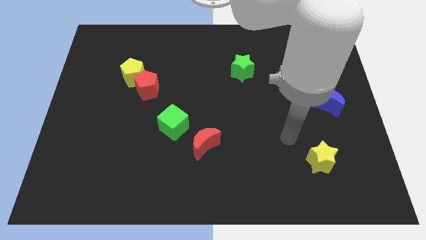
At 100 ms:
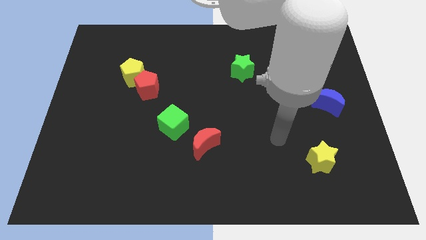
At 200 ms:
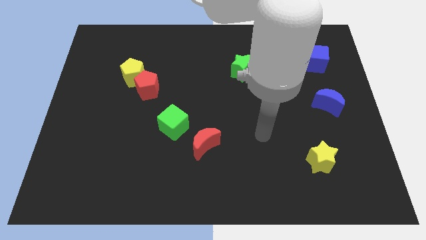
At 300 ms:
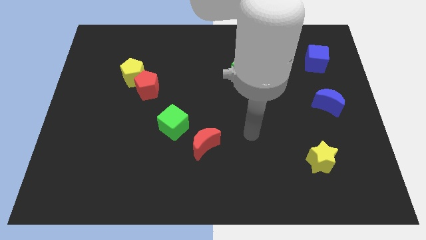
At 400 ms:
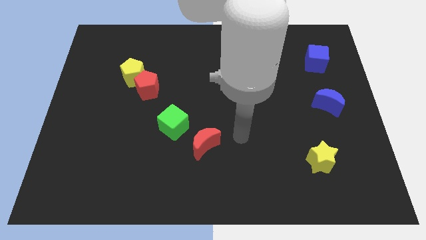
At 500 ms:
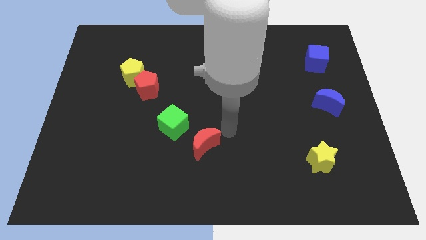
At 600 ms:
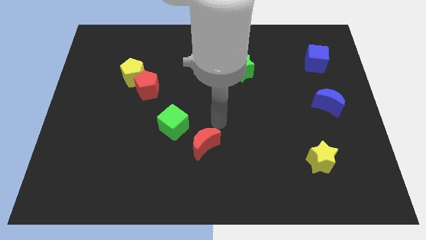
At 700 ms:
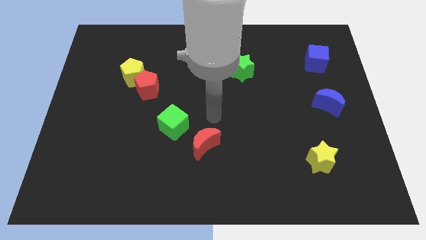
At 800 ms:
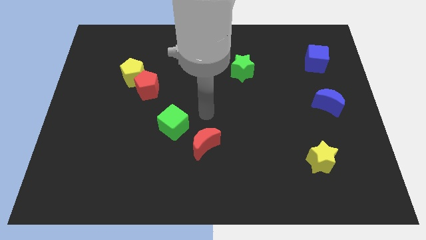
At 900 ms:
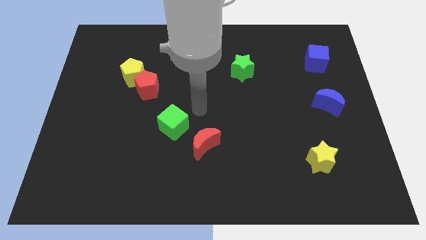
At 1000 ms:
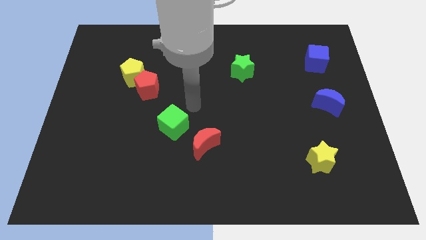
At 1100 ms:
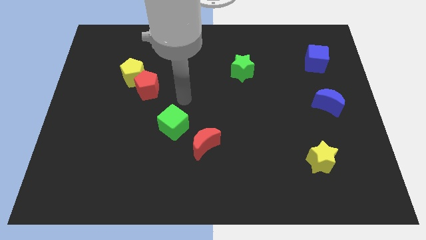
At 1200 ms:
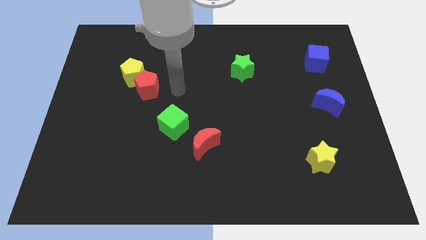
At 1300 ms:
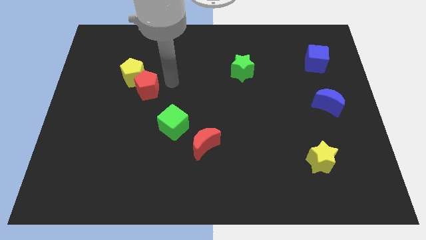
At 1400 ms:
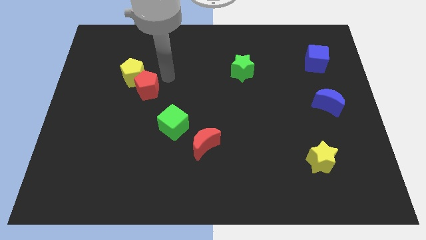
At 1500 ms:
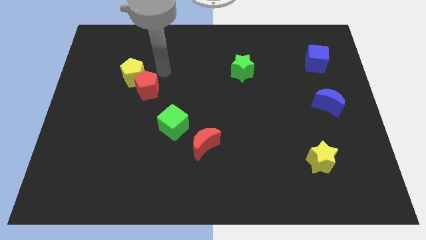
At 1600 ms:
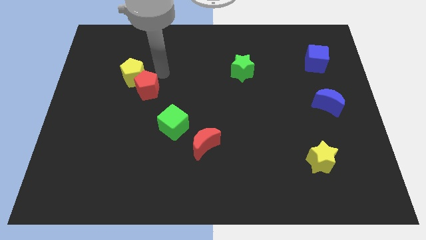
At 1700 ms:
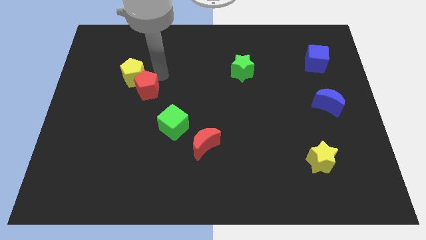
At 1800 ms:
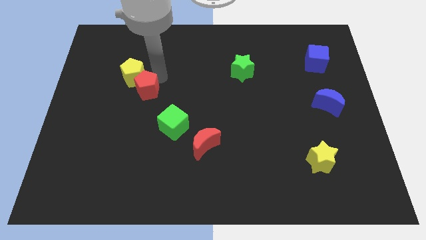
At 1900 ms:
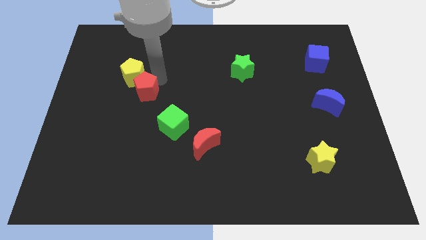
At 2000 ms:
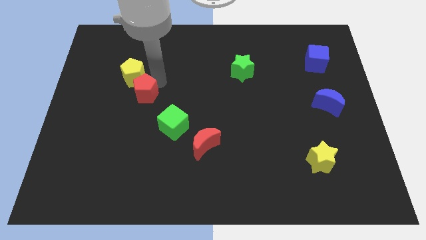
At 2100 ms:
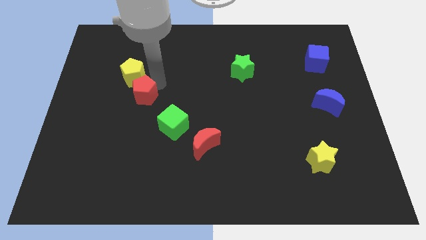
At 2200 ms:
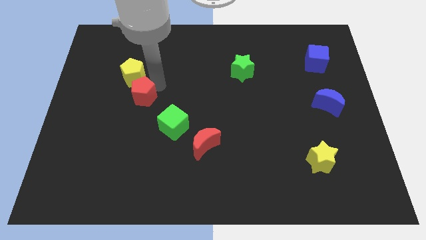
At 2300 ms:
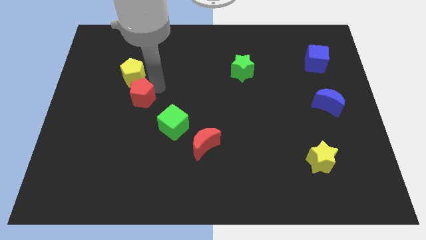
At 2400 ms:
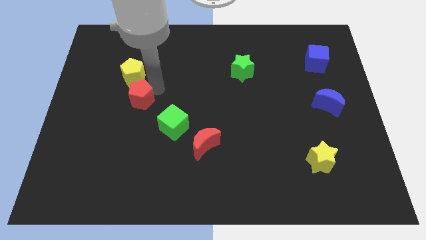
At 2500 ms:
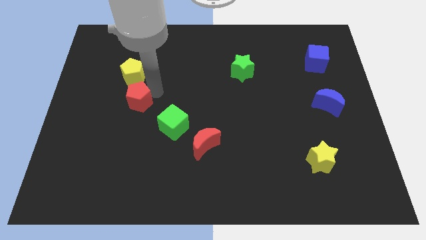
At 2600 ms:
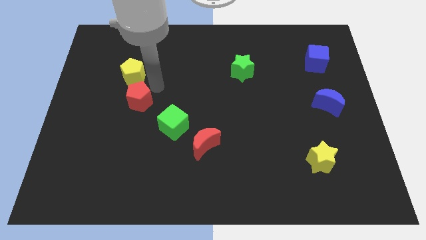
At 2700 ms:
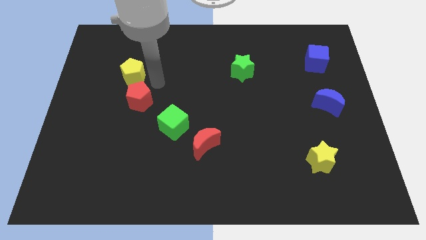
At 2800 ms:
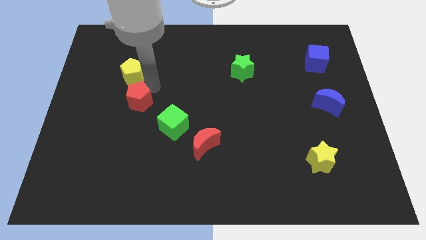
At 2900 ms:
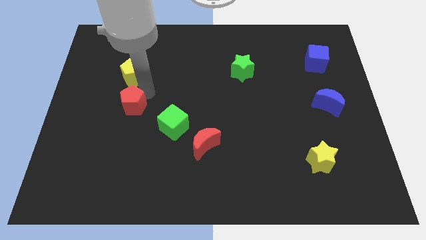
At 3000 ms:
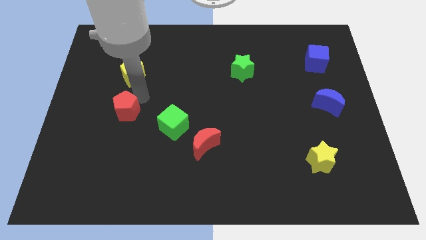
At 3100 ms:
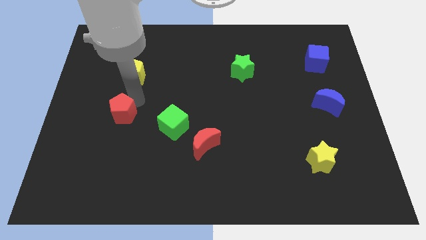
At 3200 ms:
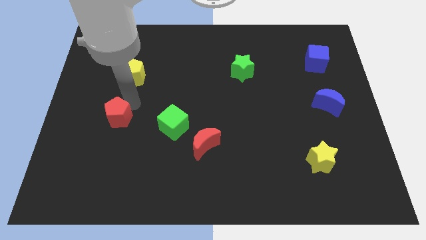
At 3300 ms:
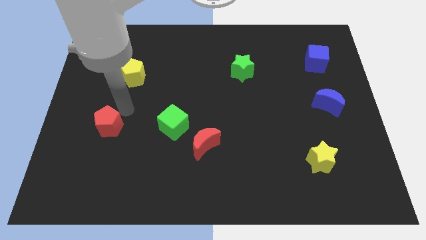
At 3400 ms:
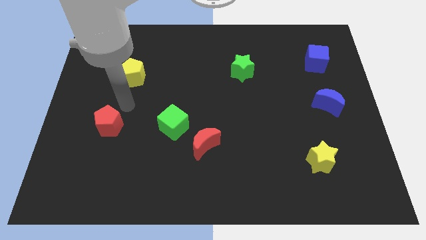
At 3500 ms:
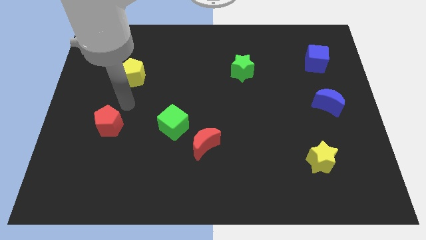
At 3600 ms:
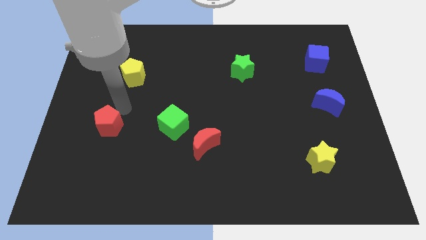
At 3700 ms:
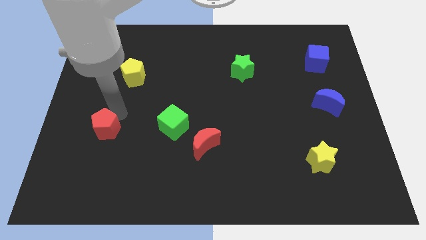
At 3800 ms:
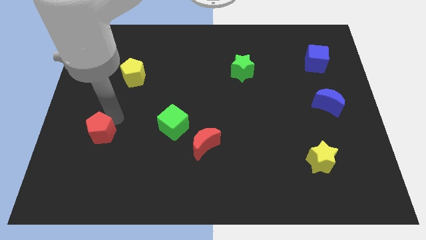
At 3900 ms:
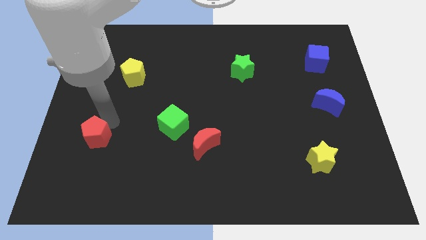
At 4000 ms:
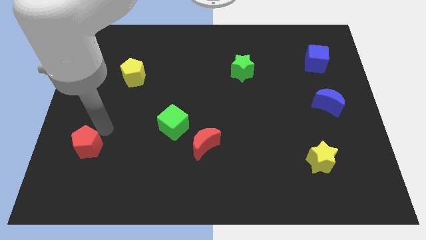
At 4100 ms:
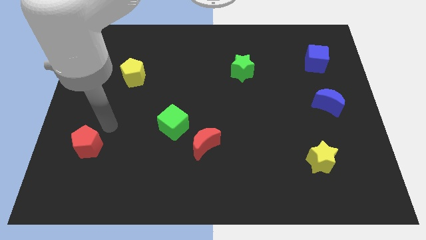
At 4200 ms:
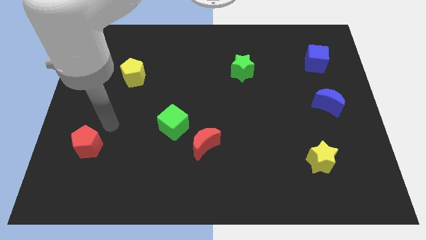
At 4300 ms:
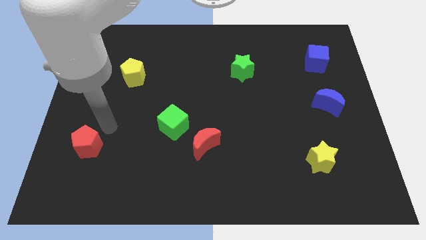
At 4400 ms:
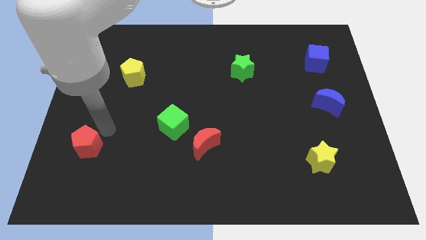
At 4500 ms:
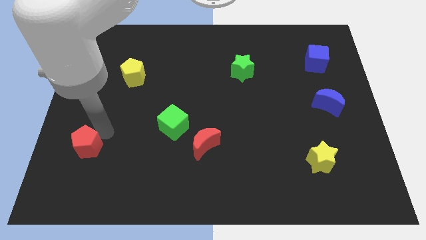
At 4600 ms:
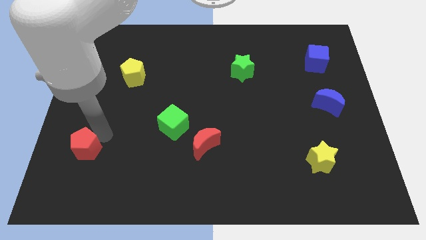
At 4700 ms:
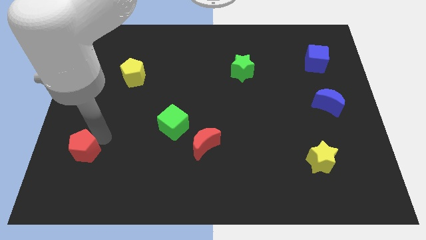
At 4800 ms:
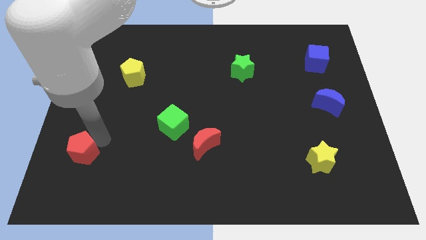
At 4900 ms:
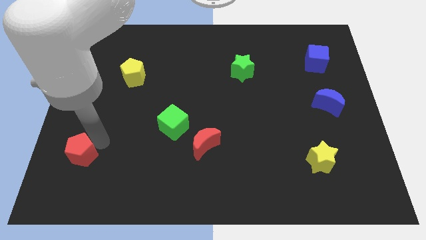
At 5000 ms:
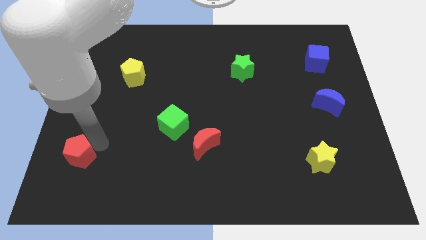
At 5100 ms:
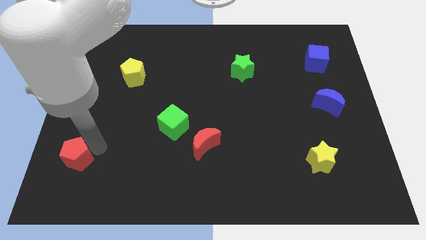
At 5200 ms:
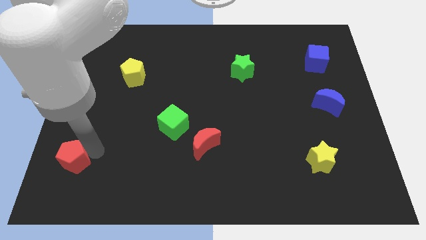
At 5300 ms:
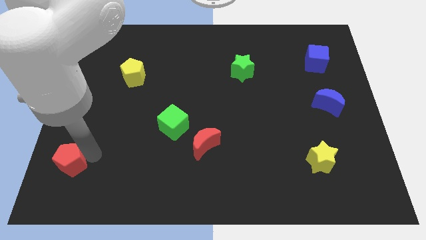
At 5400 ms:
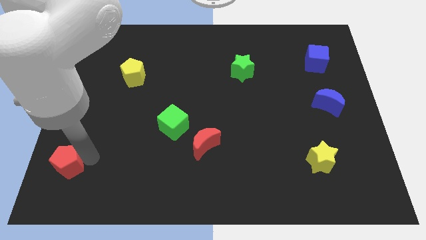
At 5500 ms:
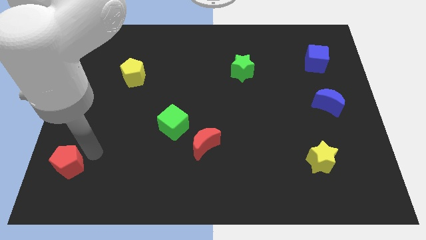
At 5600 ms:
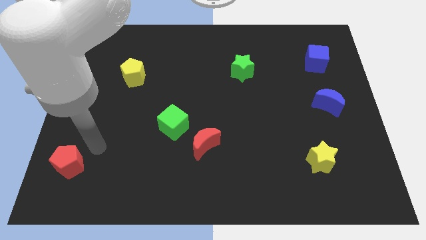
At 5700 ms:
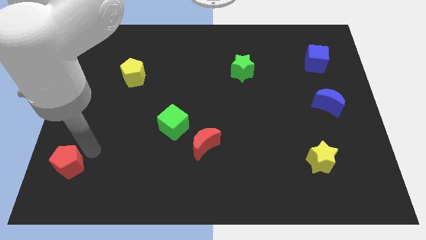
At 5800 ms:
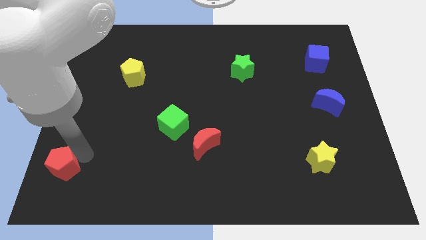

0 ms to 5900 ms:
slide the red pentagon to the lower left corner
